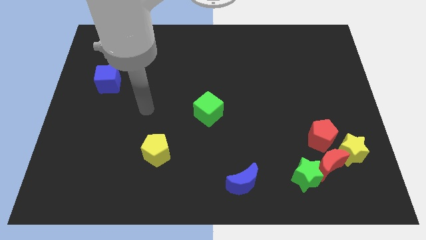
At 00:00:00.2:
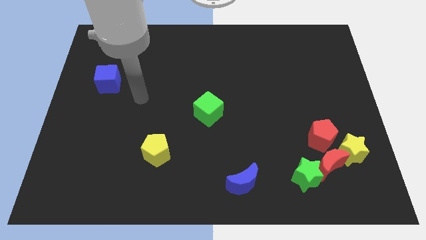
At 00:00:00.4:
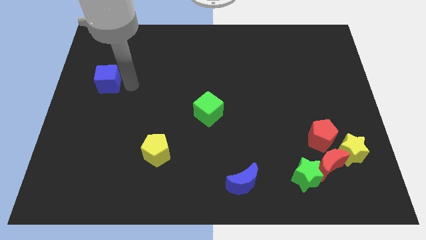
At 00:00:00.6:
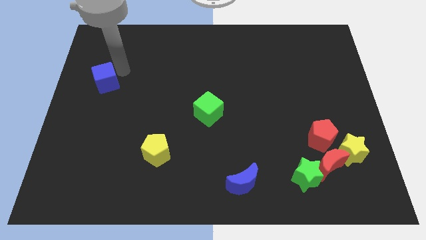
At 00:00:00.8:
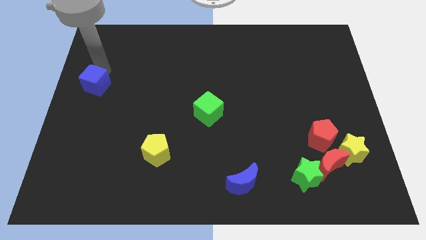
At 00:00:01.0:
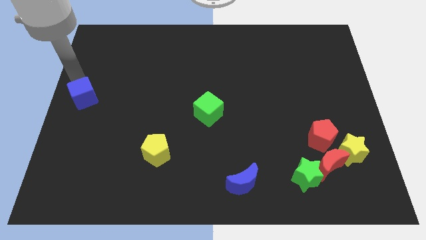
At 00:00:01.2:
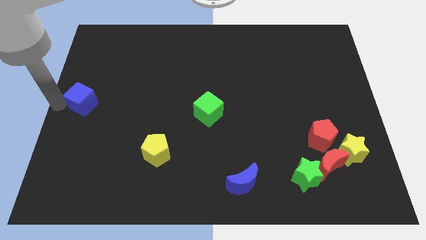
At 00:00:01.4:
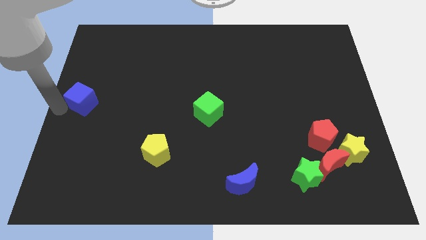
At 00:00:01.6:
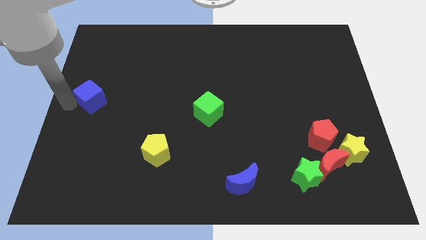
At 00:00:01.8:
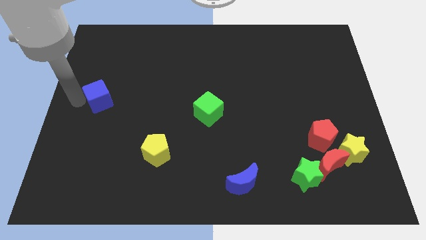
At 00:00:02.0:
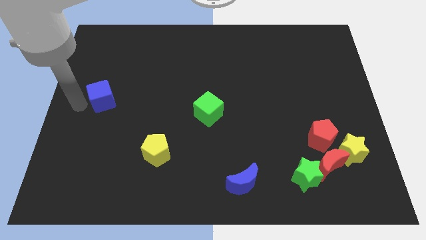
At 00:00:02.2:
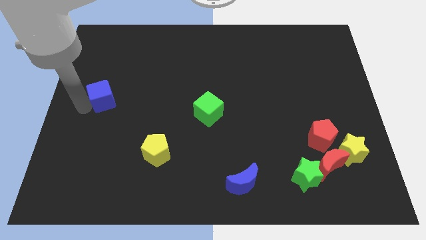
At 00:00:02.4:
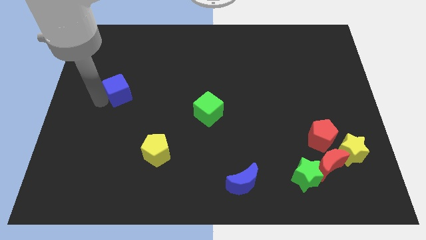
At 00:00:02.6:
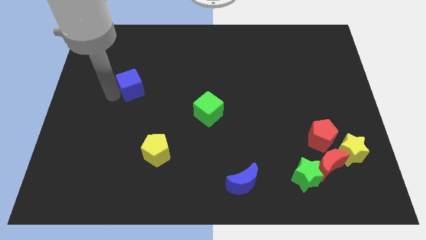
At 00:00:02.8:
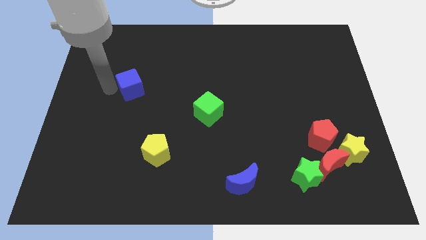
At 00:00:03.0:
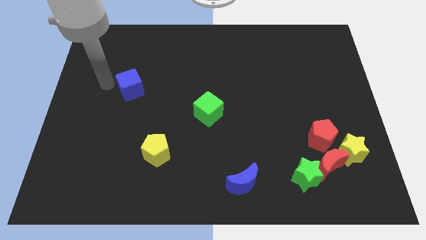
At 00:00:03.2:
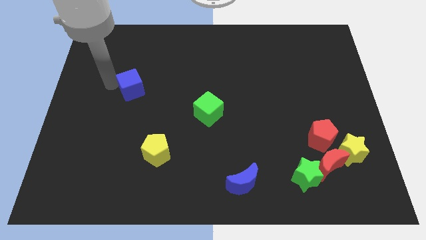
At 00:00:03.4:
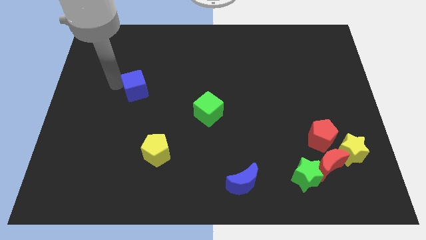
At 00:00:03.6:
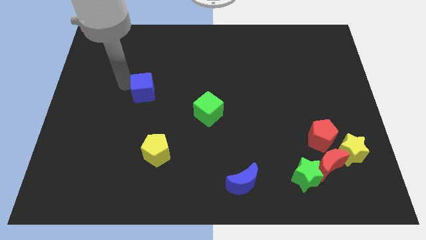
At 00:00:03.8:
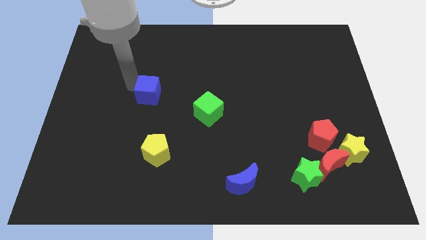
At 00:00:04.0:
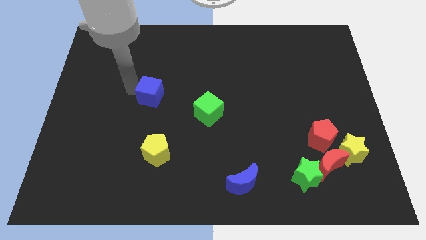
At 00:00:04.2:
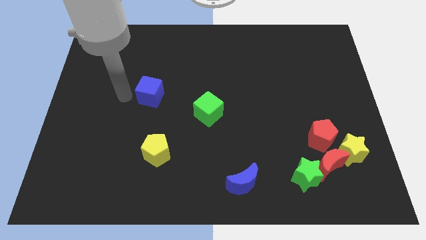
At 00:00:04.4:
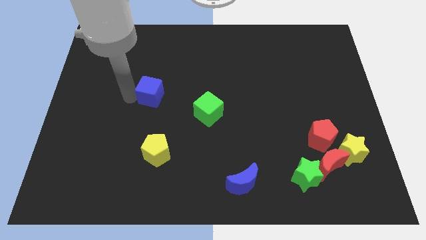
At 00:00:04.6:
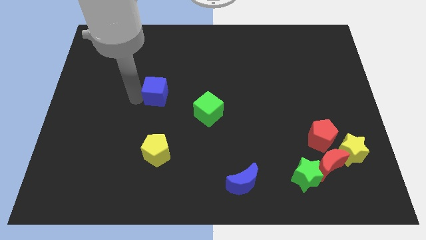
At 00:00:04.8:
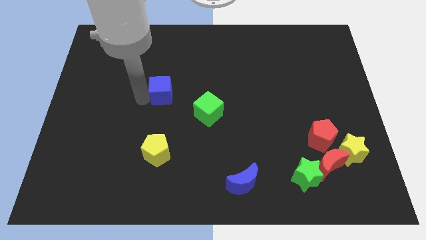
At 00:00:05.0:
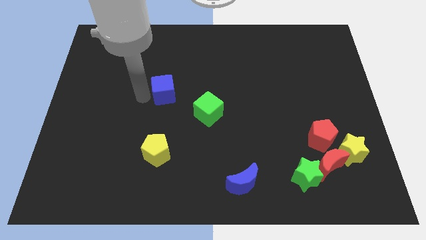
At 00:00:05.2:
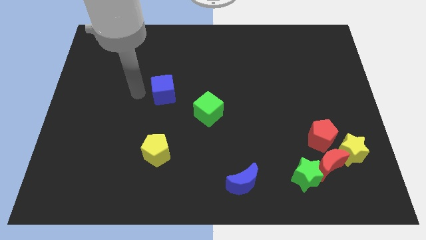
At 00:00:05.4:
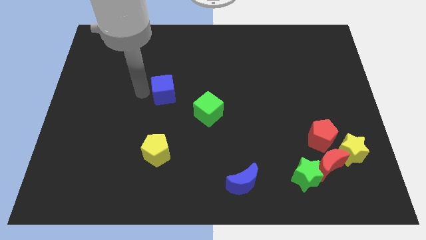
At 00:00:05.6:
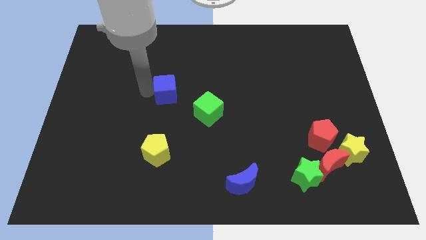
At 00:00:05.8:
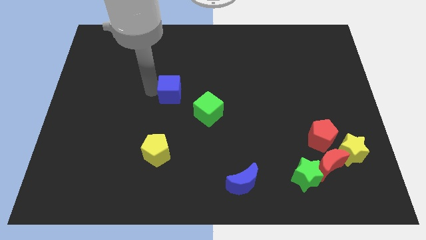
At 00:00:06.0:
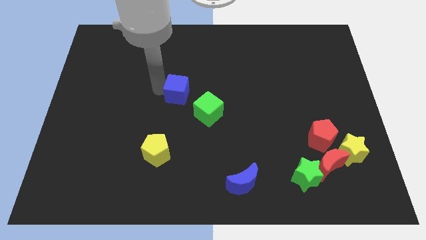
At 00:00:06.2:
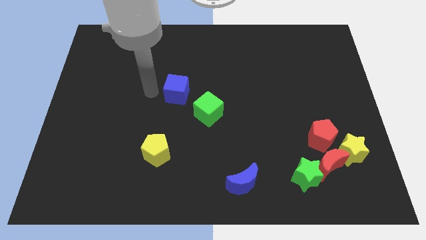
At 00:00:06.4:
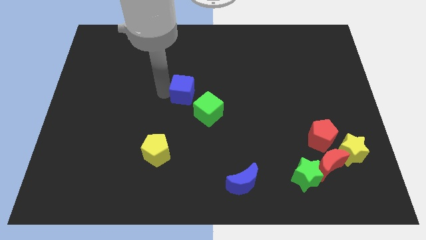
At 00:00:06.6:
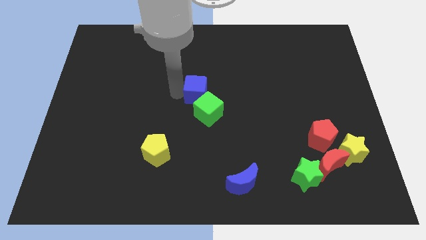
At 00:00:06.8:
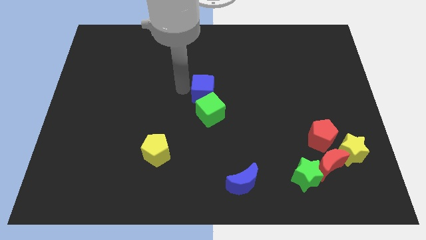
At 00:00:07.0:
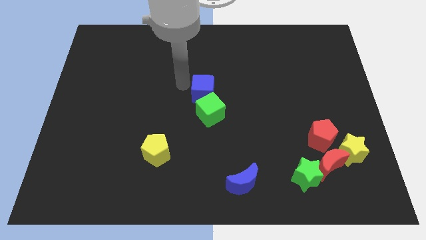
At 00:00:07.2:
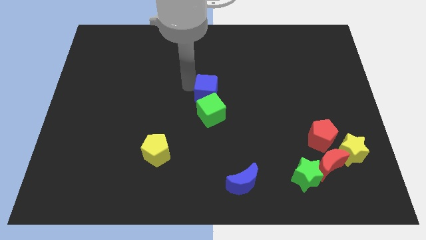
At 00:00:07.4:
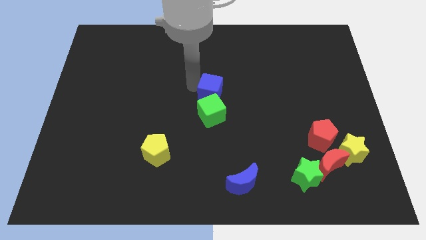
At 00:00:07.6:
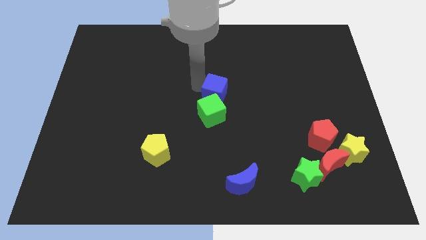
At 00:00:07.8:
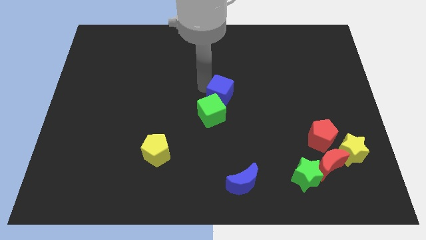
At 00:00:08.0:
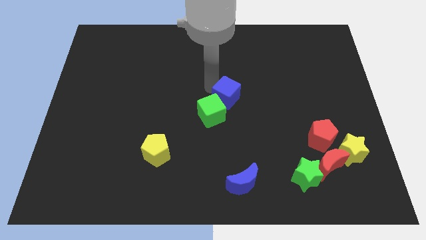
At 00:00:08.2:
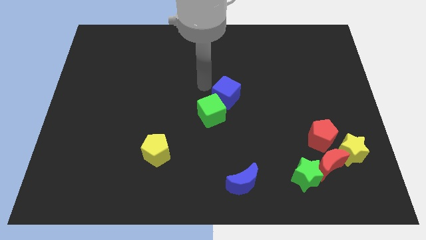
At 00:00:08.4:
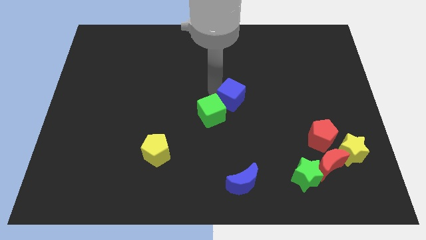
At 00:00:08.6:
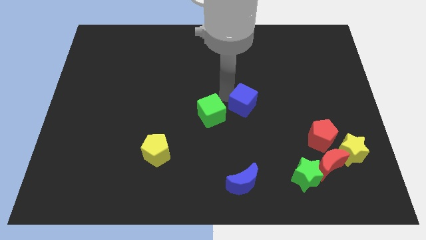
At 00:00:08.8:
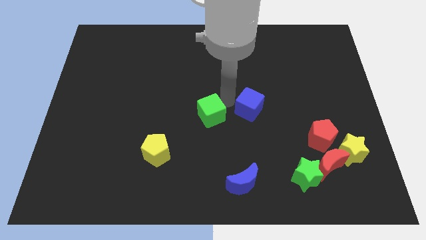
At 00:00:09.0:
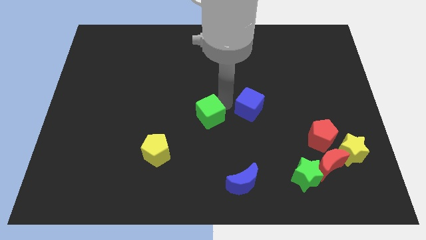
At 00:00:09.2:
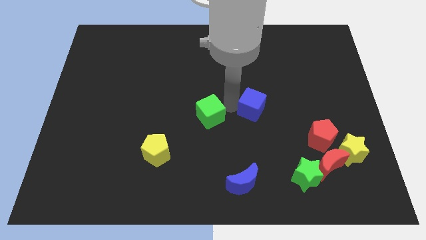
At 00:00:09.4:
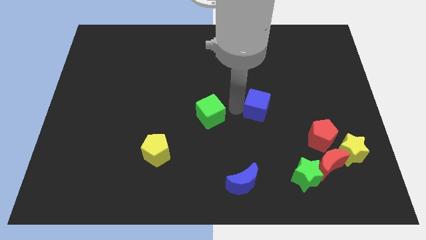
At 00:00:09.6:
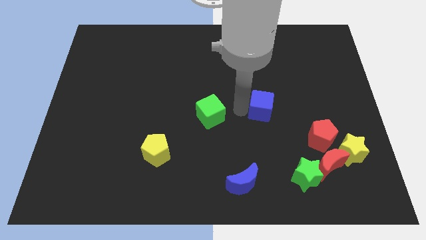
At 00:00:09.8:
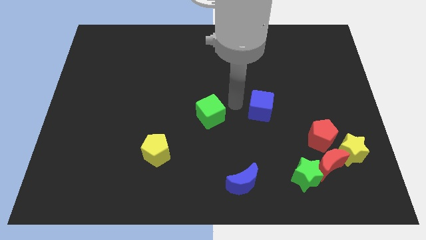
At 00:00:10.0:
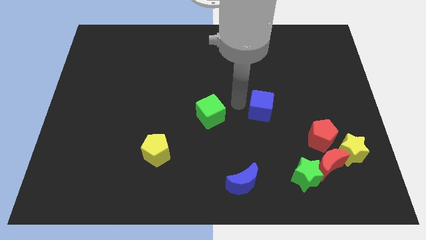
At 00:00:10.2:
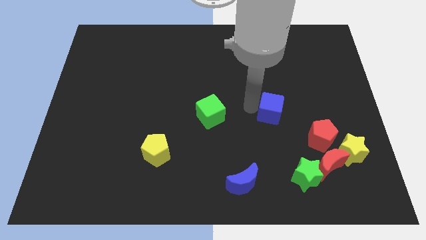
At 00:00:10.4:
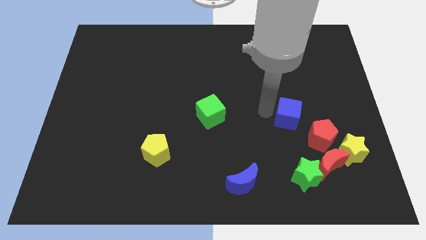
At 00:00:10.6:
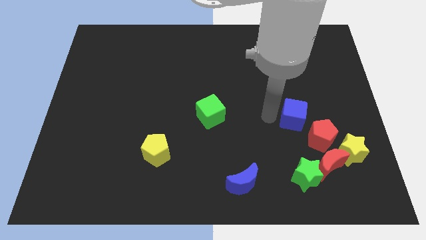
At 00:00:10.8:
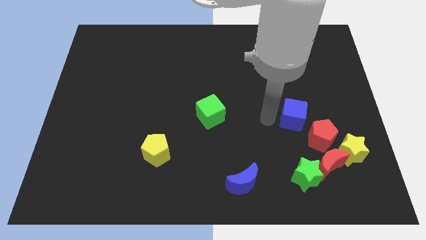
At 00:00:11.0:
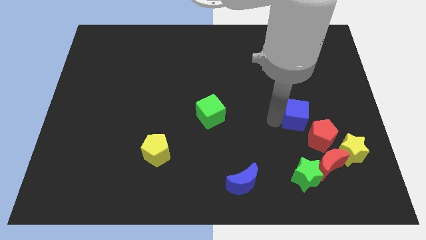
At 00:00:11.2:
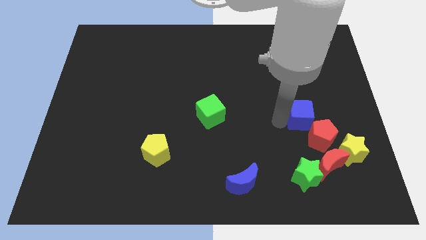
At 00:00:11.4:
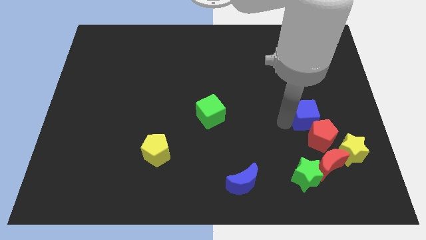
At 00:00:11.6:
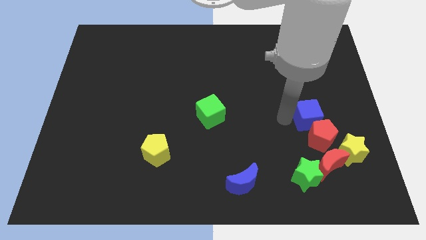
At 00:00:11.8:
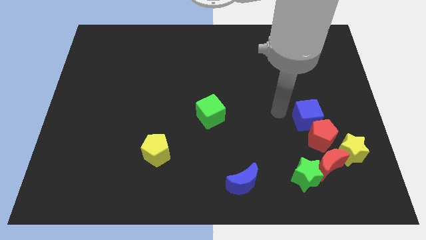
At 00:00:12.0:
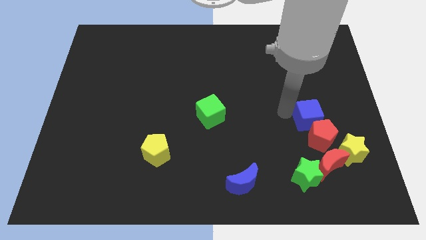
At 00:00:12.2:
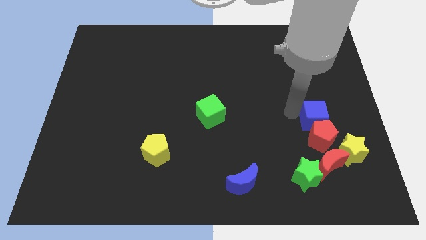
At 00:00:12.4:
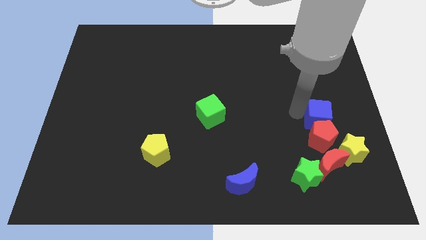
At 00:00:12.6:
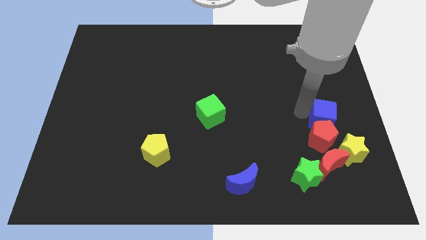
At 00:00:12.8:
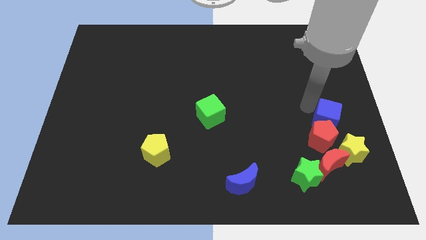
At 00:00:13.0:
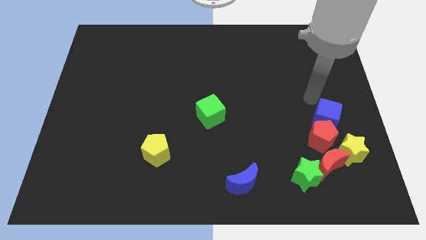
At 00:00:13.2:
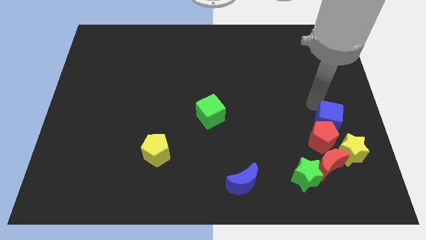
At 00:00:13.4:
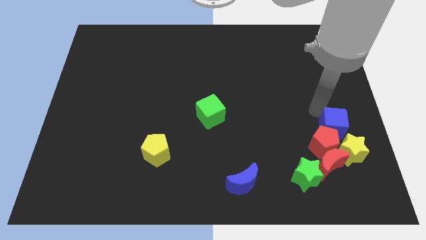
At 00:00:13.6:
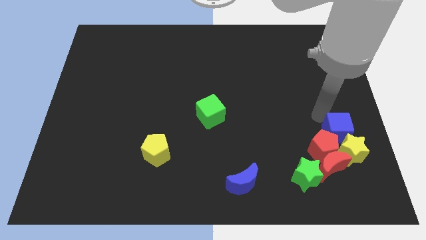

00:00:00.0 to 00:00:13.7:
slide the blue cube next to the yellow star
